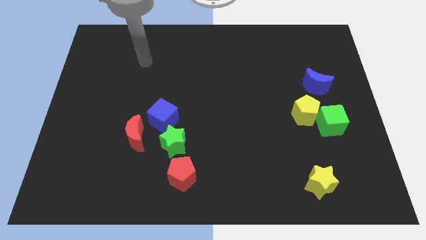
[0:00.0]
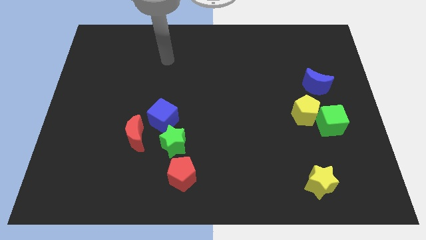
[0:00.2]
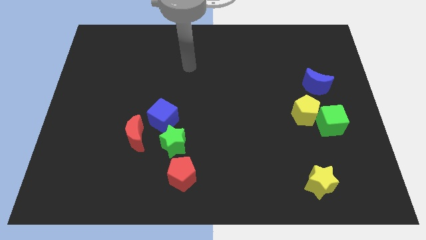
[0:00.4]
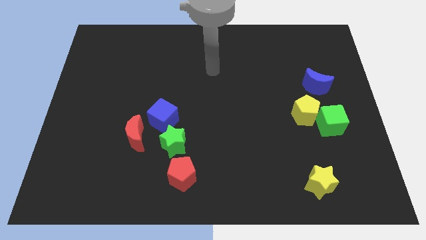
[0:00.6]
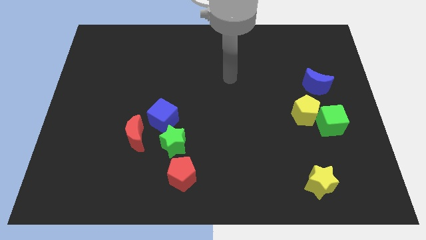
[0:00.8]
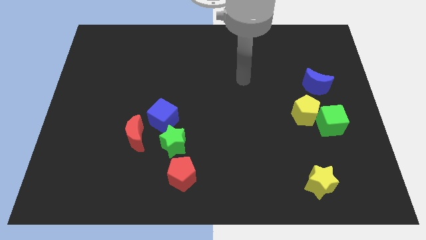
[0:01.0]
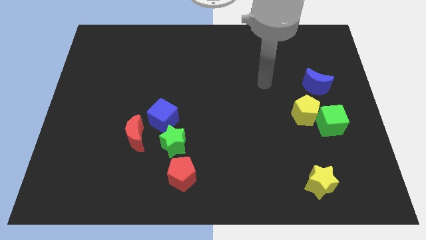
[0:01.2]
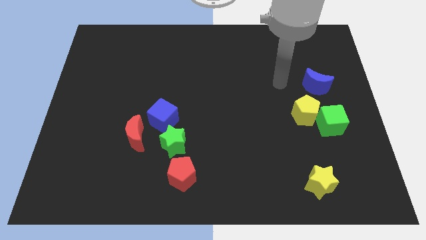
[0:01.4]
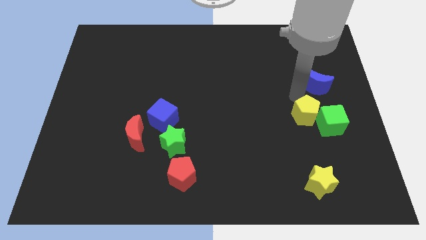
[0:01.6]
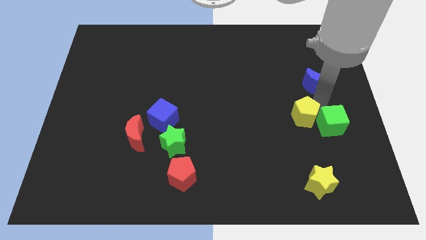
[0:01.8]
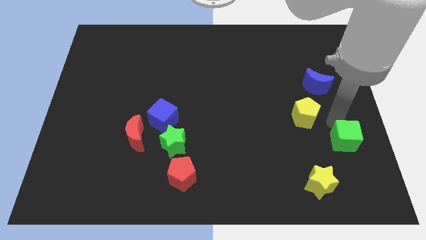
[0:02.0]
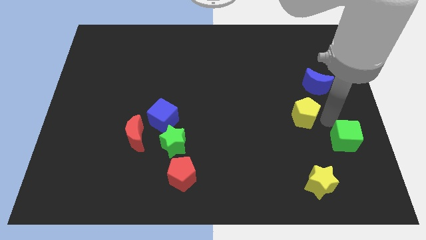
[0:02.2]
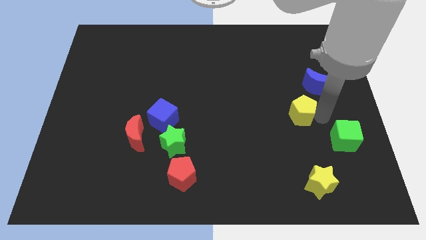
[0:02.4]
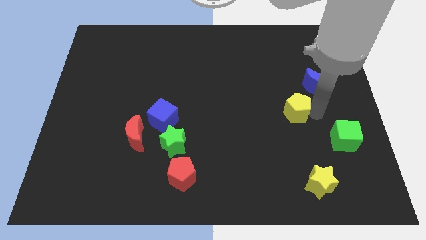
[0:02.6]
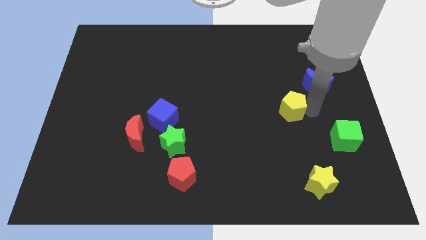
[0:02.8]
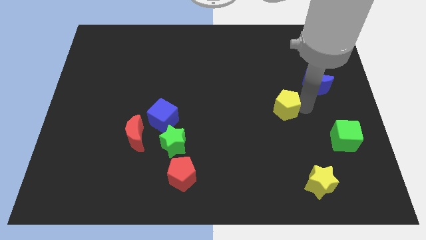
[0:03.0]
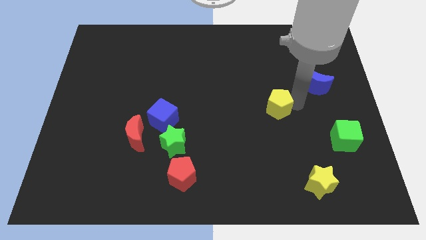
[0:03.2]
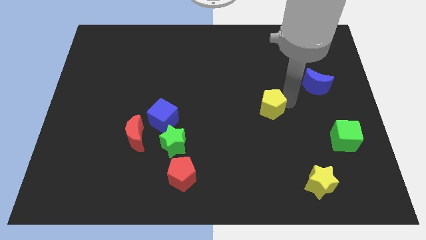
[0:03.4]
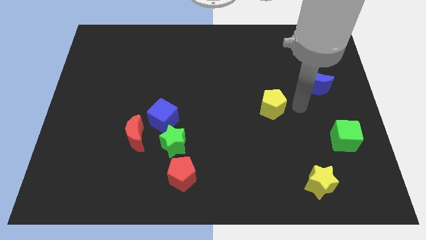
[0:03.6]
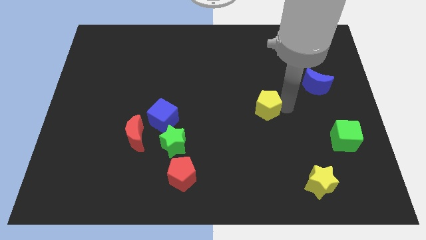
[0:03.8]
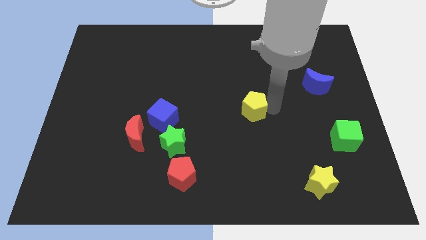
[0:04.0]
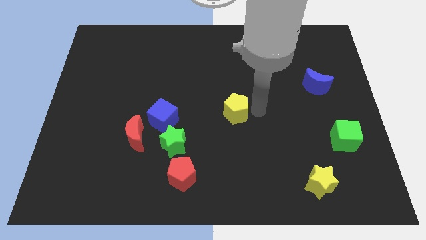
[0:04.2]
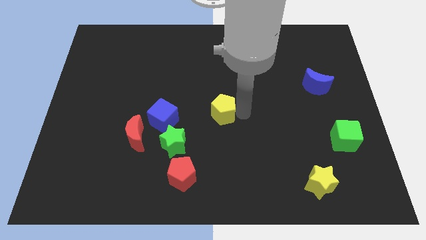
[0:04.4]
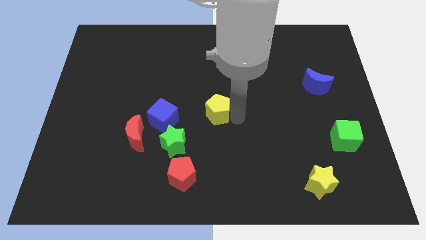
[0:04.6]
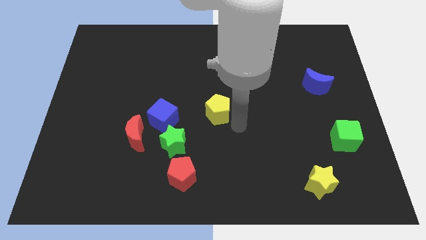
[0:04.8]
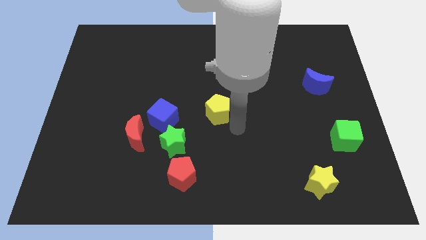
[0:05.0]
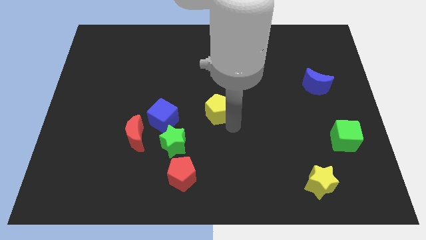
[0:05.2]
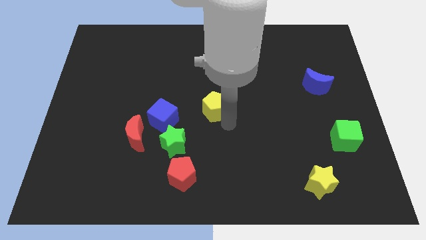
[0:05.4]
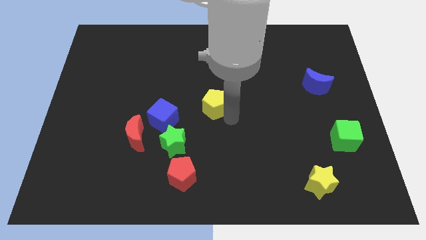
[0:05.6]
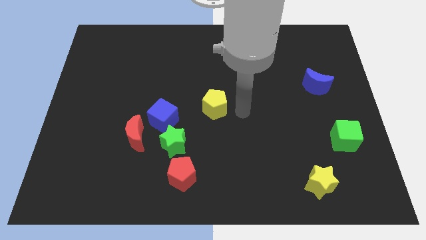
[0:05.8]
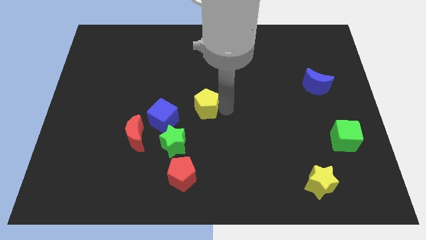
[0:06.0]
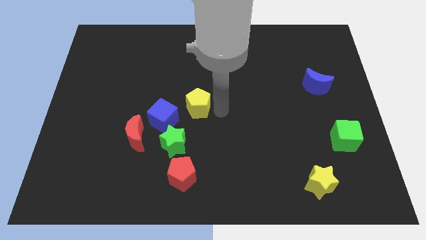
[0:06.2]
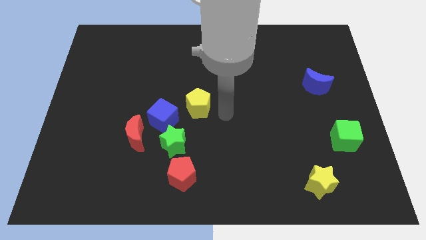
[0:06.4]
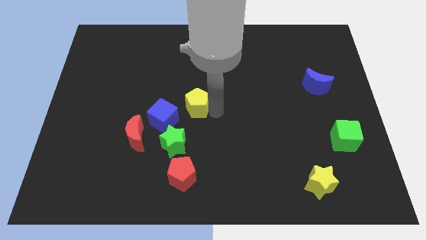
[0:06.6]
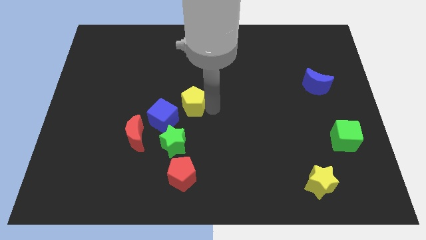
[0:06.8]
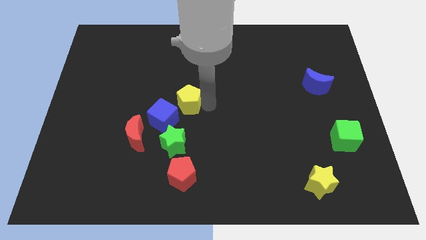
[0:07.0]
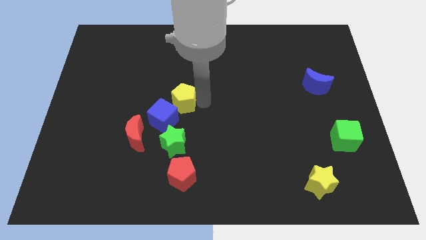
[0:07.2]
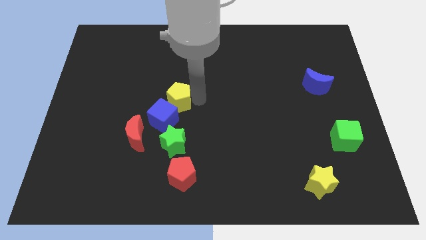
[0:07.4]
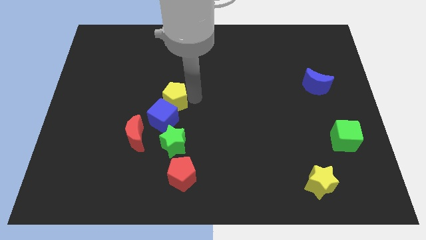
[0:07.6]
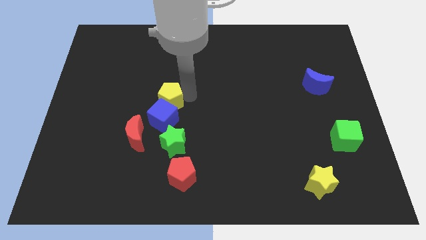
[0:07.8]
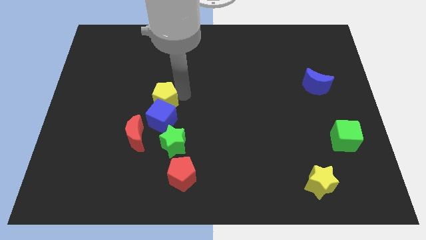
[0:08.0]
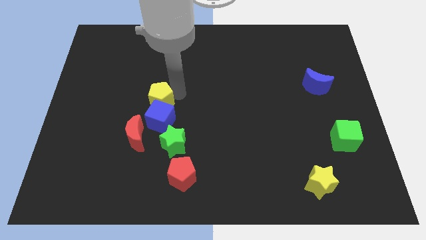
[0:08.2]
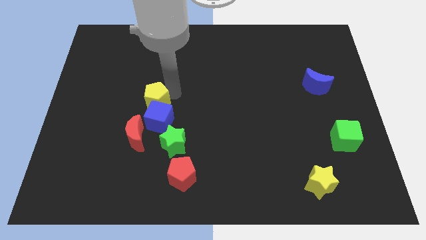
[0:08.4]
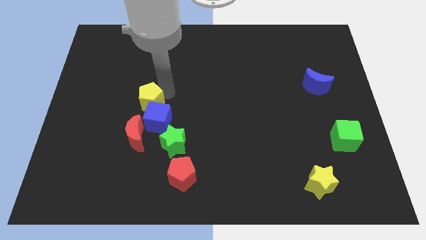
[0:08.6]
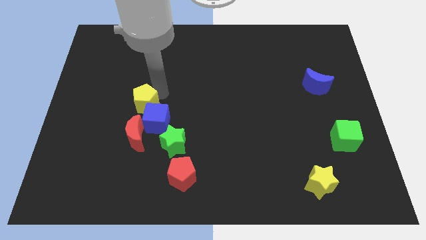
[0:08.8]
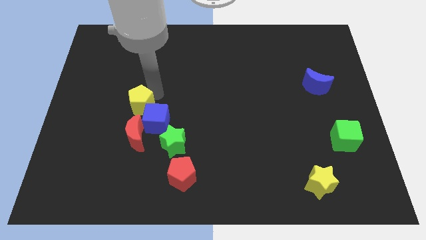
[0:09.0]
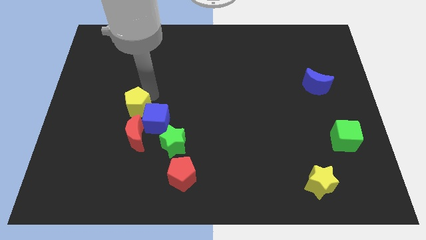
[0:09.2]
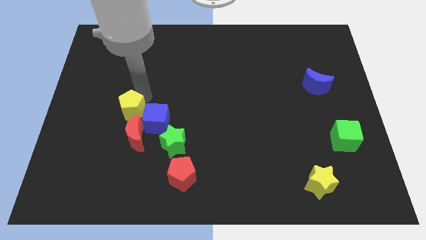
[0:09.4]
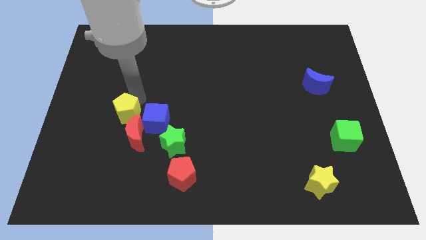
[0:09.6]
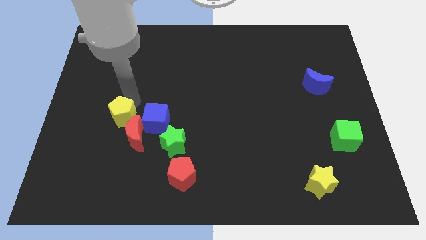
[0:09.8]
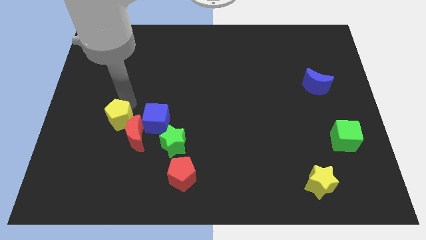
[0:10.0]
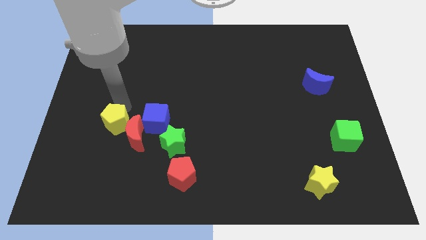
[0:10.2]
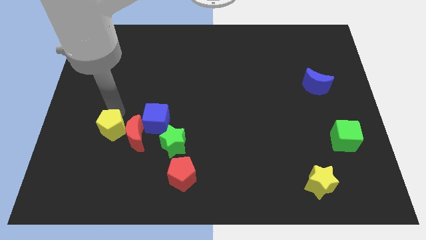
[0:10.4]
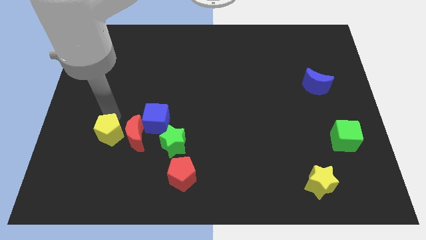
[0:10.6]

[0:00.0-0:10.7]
move the yellow pentagon to the bottom left of the red moon

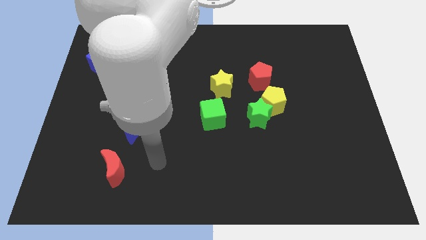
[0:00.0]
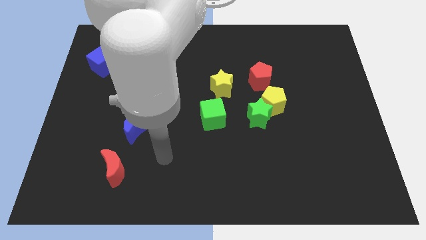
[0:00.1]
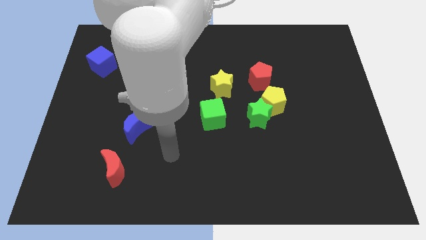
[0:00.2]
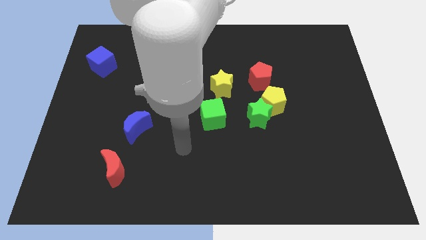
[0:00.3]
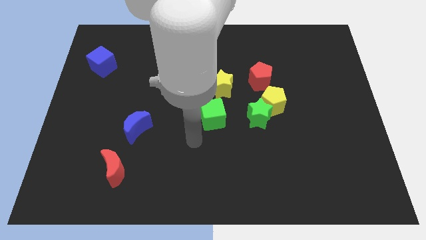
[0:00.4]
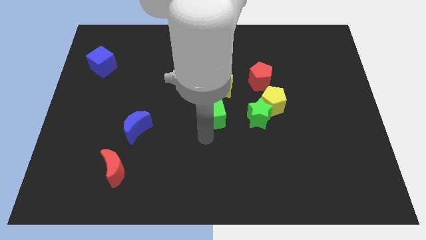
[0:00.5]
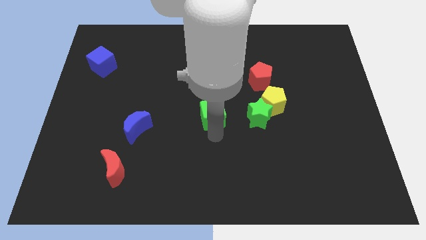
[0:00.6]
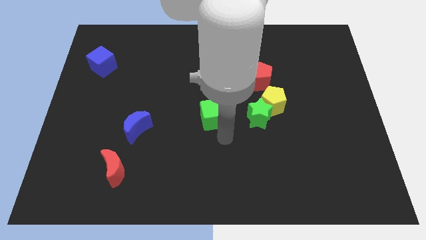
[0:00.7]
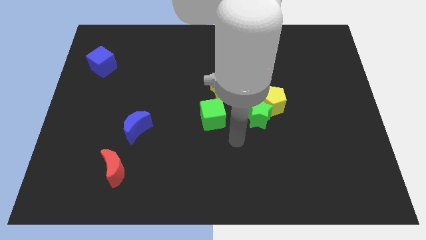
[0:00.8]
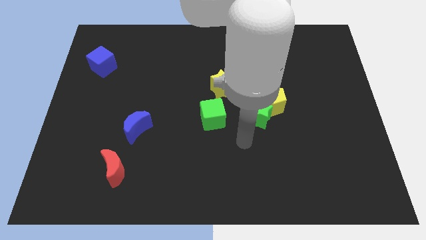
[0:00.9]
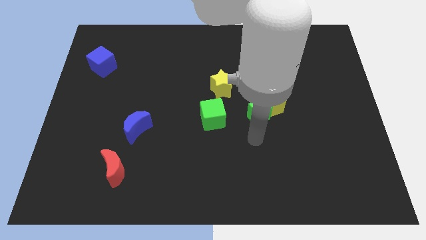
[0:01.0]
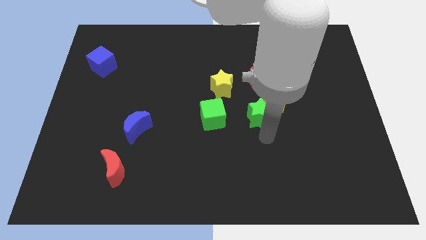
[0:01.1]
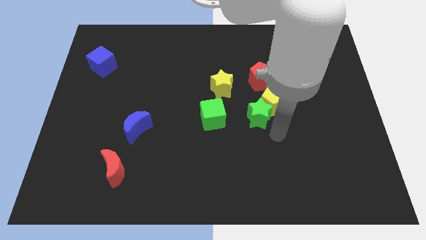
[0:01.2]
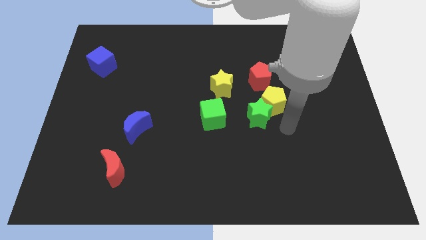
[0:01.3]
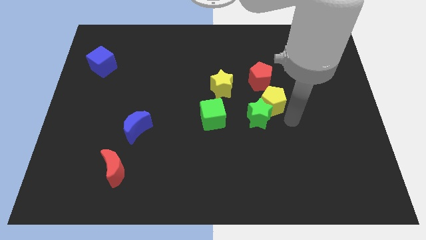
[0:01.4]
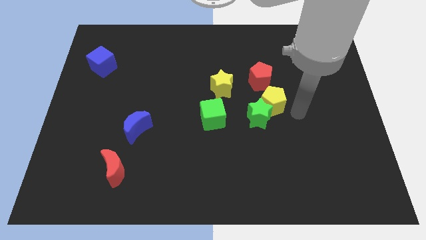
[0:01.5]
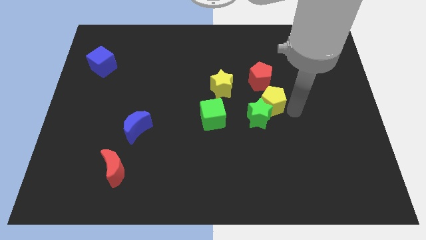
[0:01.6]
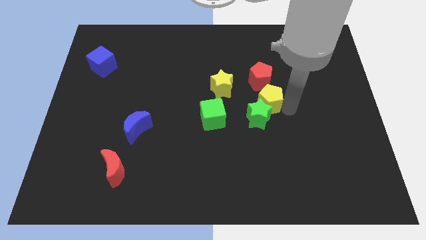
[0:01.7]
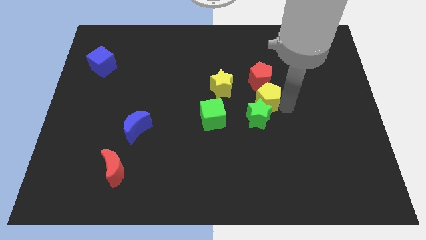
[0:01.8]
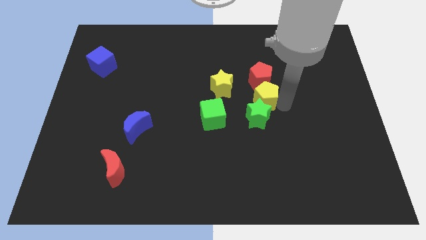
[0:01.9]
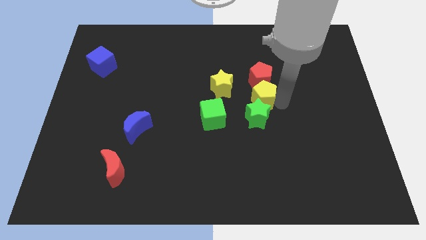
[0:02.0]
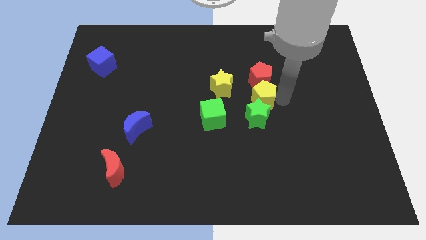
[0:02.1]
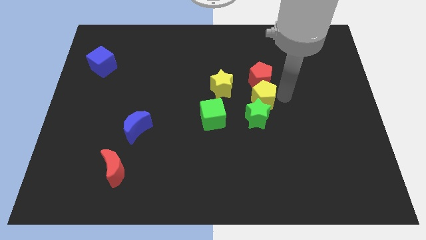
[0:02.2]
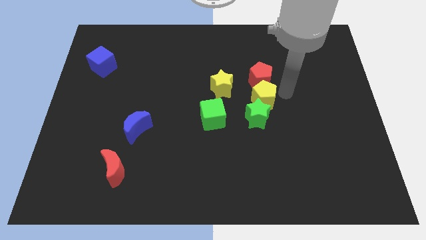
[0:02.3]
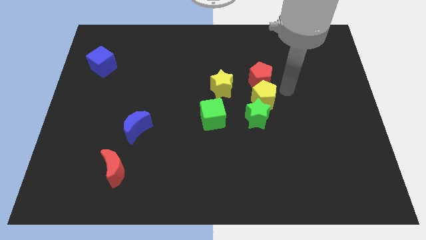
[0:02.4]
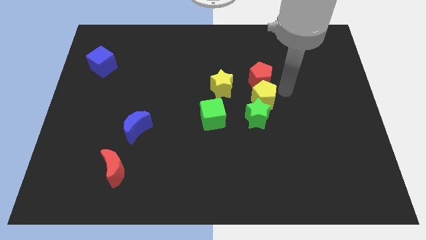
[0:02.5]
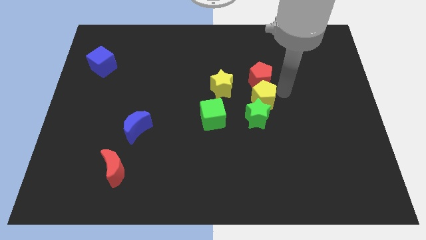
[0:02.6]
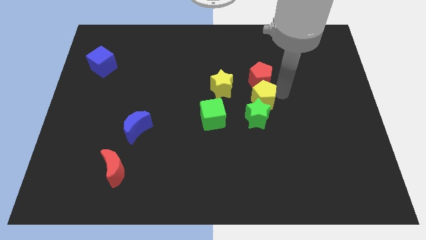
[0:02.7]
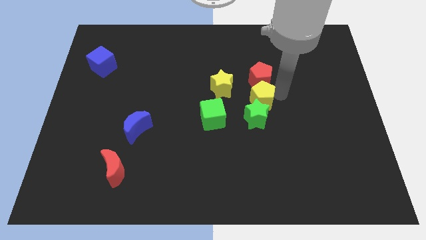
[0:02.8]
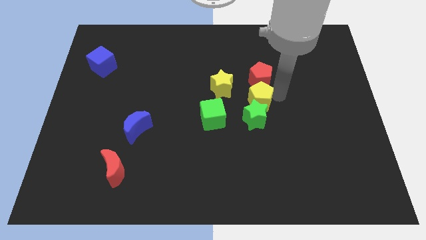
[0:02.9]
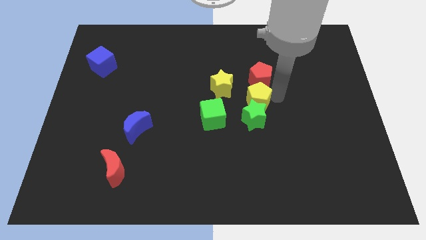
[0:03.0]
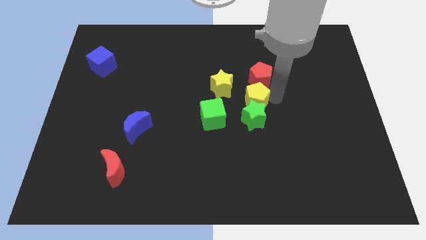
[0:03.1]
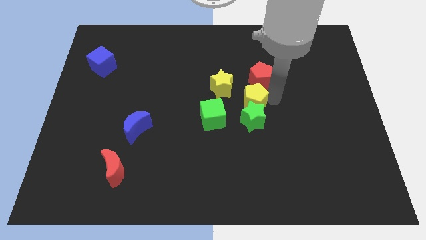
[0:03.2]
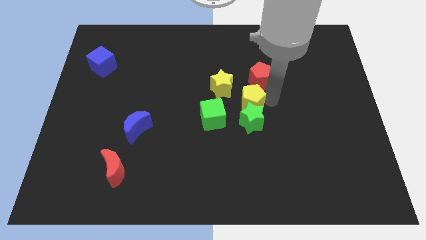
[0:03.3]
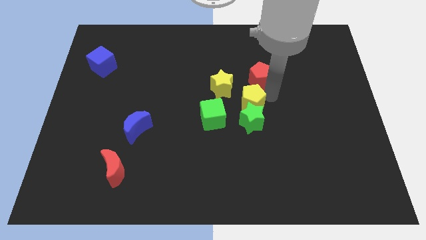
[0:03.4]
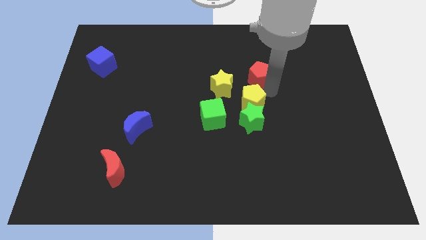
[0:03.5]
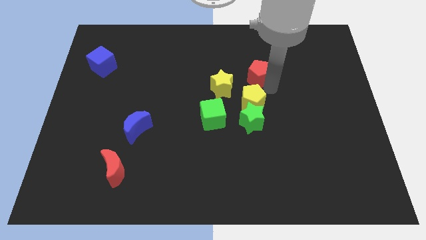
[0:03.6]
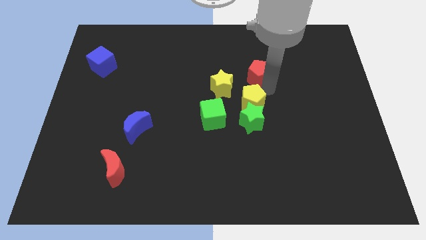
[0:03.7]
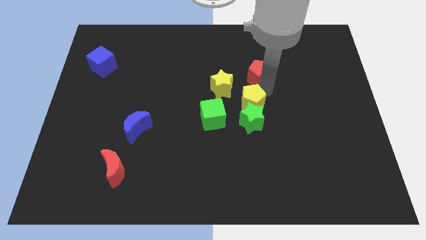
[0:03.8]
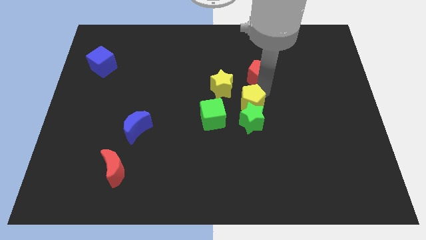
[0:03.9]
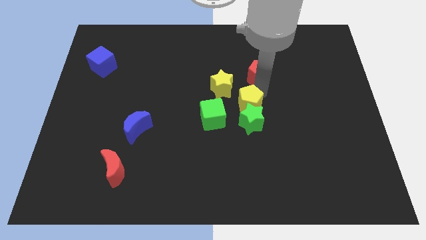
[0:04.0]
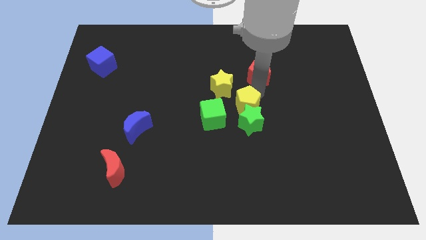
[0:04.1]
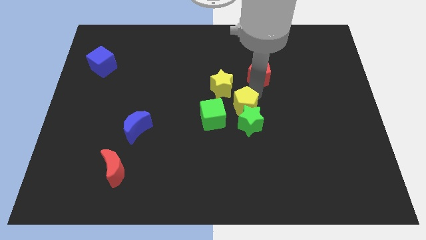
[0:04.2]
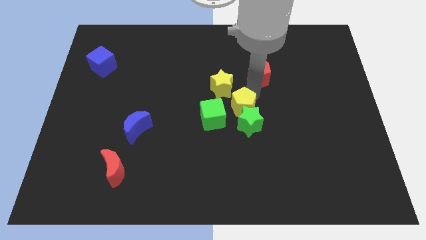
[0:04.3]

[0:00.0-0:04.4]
slide the yellow pentagon below the yellow star
